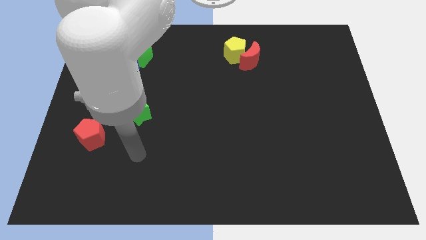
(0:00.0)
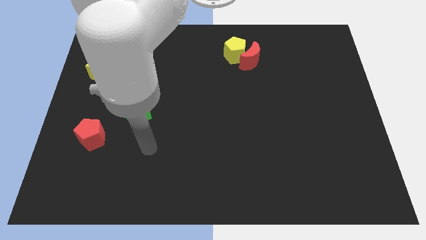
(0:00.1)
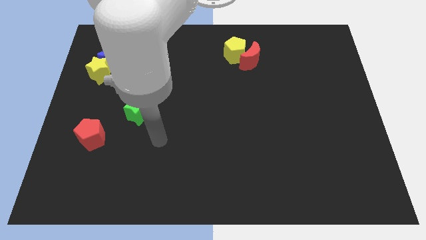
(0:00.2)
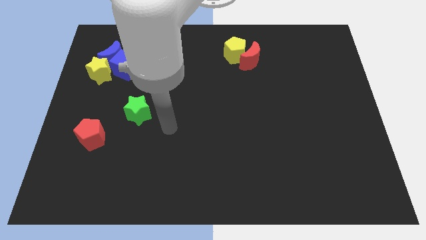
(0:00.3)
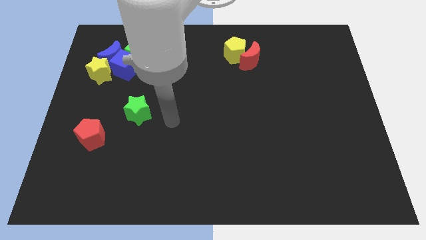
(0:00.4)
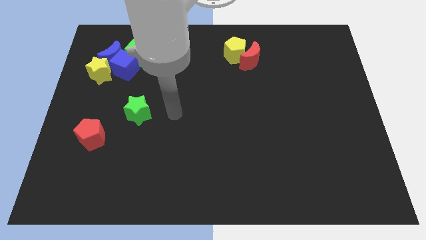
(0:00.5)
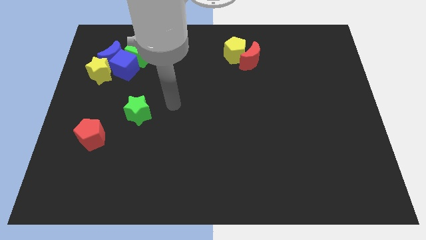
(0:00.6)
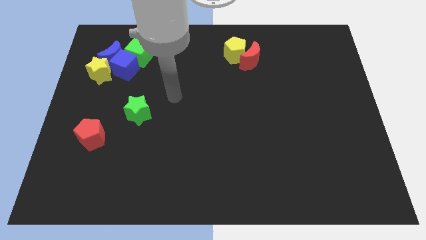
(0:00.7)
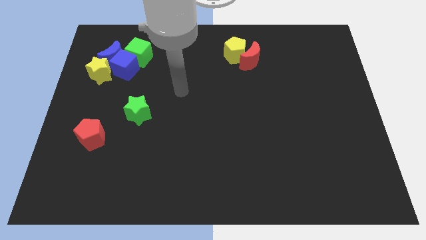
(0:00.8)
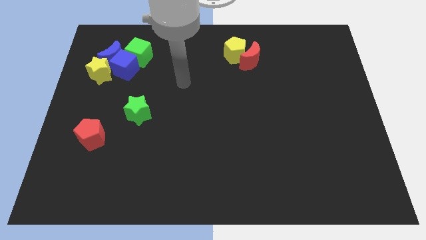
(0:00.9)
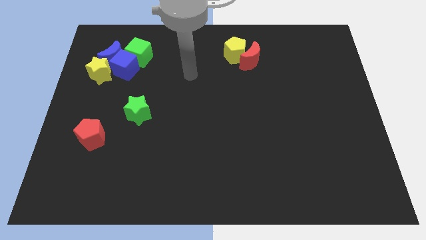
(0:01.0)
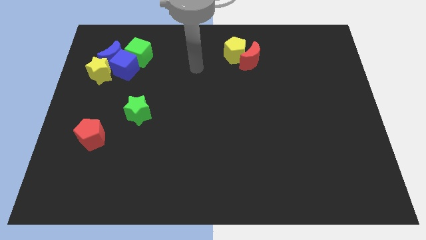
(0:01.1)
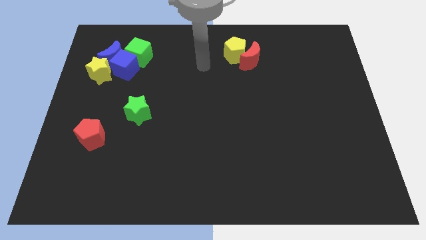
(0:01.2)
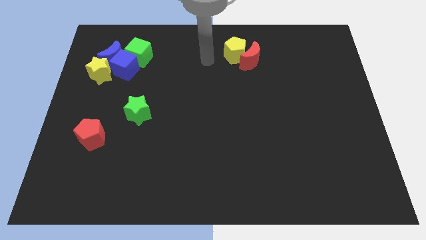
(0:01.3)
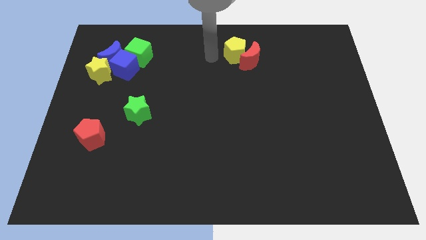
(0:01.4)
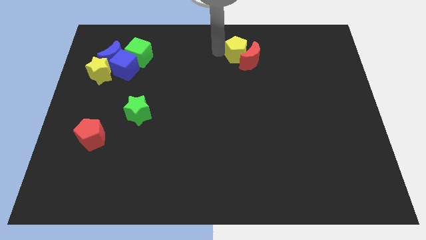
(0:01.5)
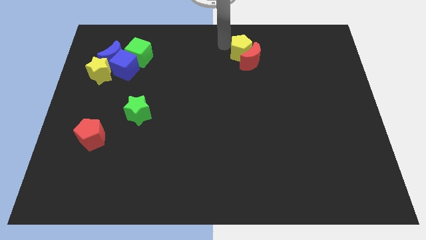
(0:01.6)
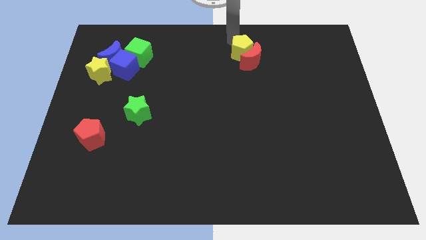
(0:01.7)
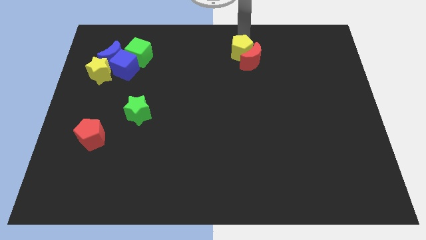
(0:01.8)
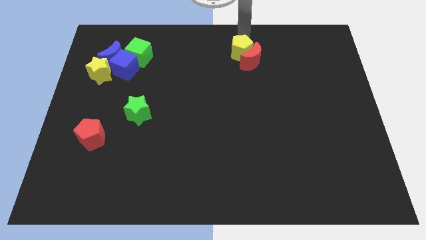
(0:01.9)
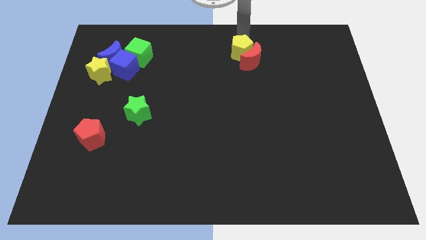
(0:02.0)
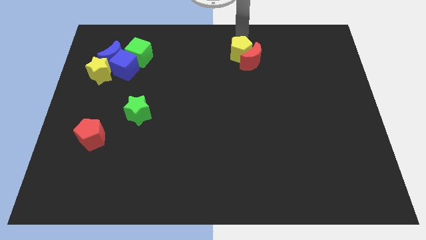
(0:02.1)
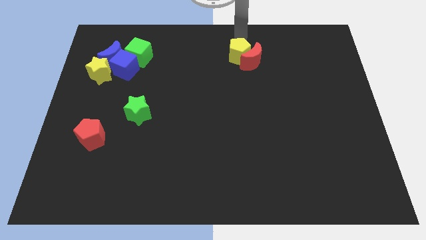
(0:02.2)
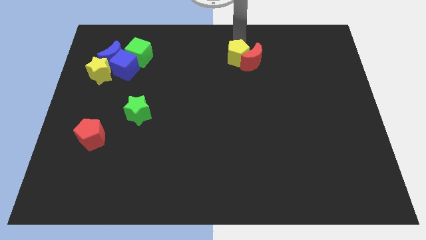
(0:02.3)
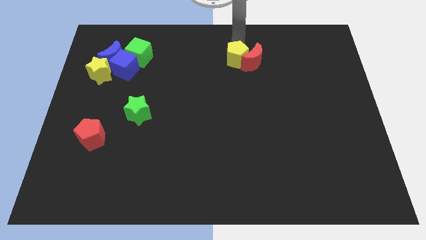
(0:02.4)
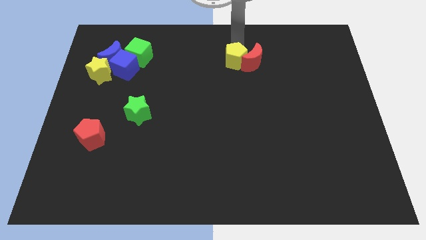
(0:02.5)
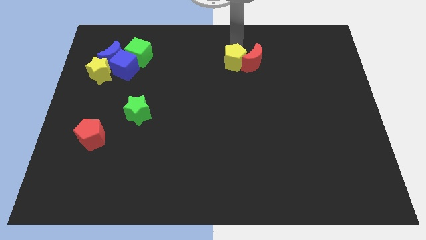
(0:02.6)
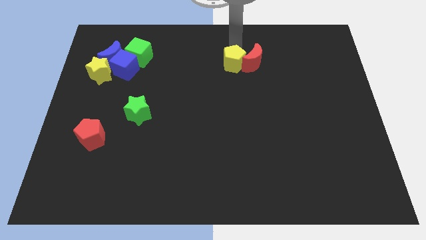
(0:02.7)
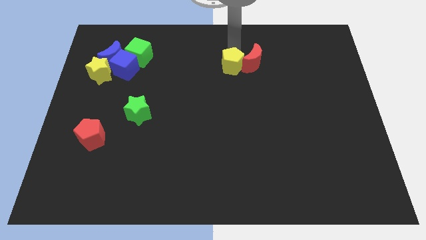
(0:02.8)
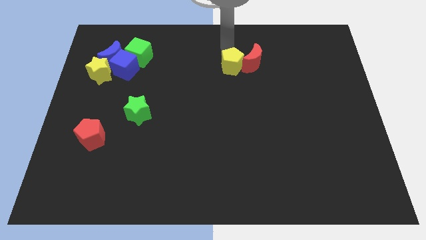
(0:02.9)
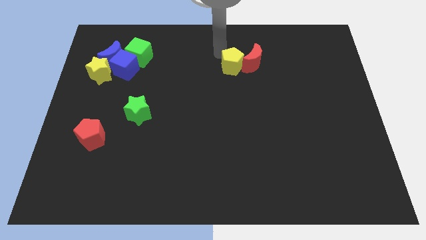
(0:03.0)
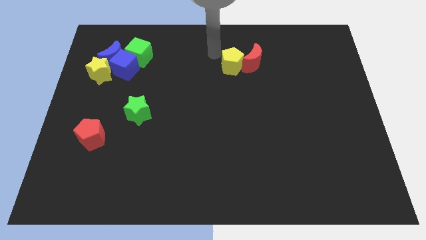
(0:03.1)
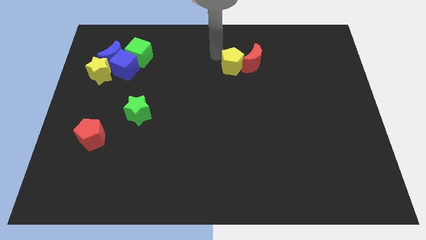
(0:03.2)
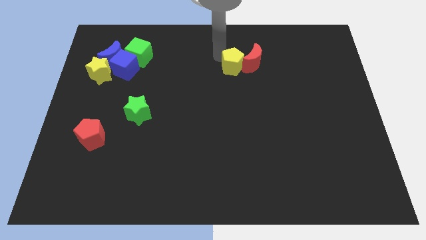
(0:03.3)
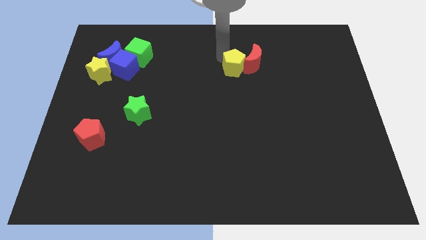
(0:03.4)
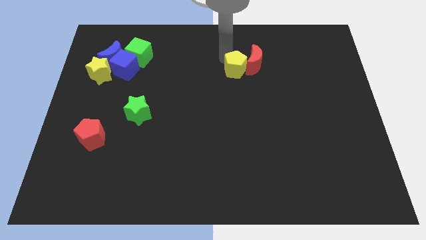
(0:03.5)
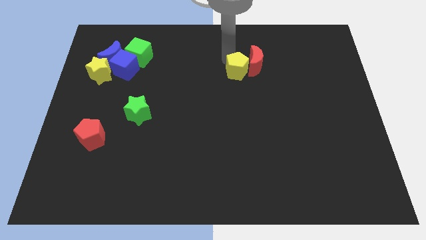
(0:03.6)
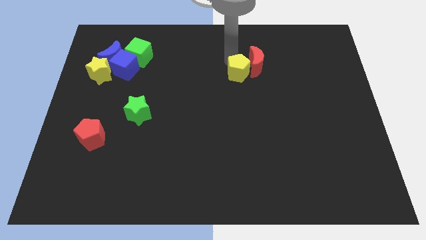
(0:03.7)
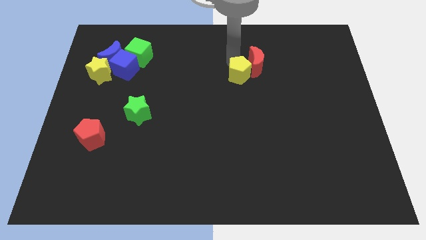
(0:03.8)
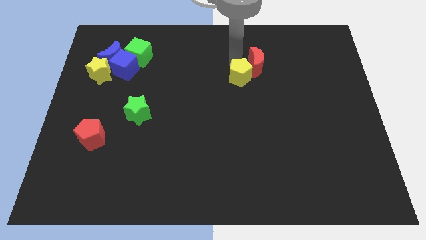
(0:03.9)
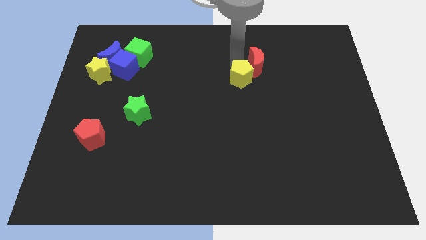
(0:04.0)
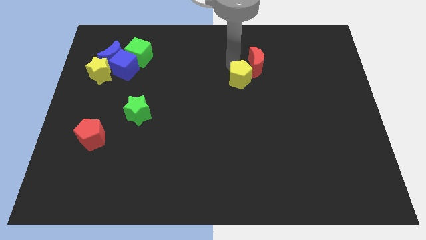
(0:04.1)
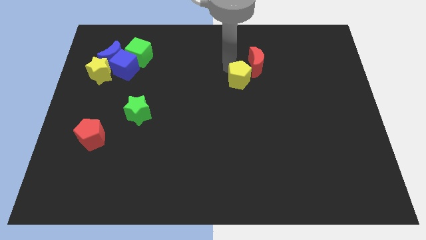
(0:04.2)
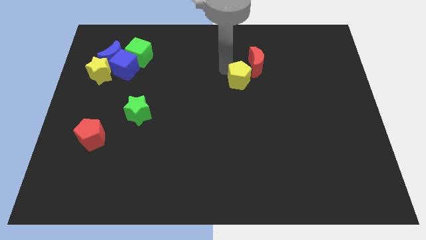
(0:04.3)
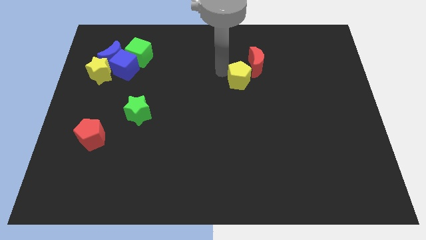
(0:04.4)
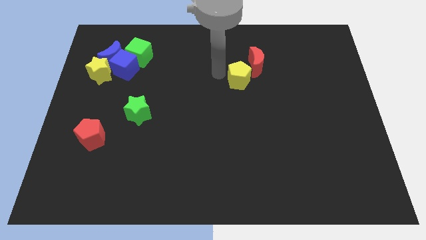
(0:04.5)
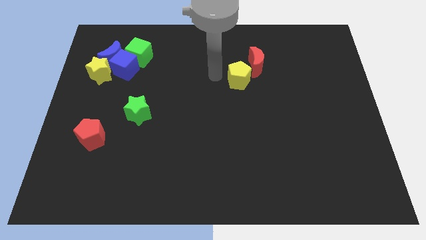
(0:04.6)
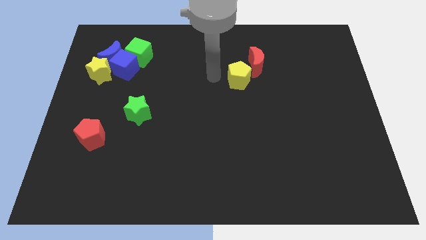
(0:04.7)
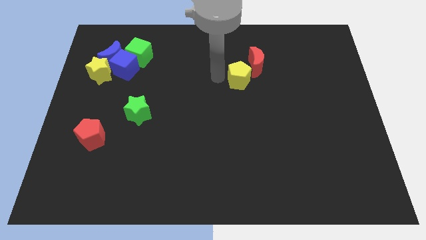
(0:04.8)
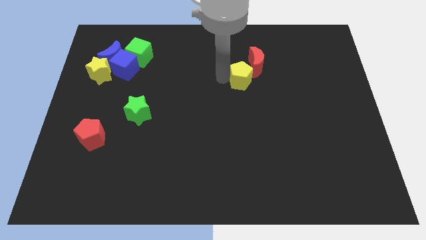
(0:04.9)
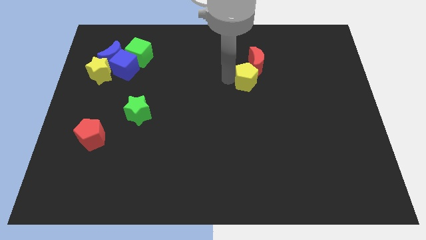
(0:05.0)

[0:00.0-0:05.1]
push the yellow pentagon slightly diagonally down and right

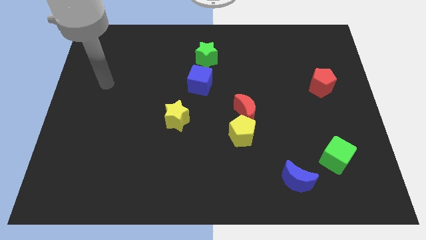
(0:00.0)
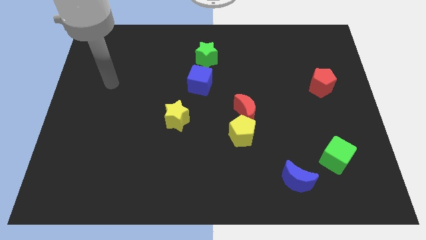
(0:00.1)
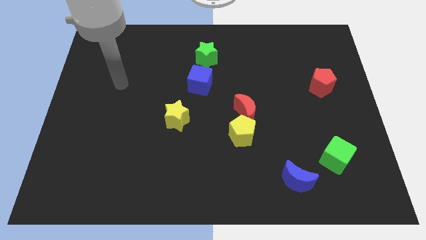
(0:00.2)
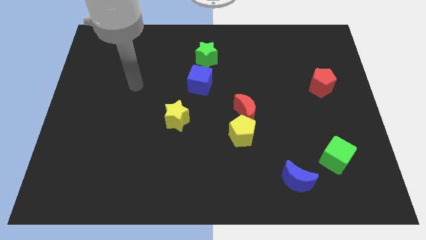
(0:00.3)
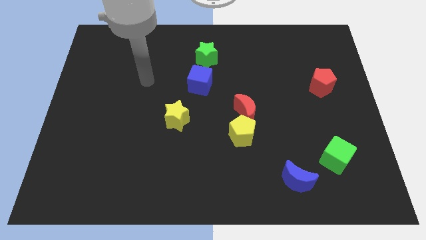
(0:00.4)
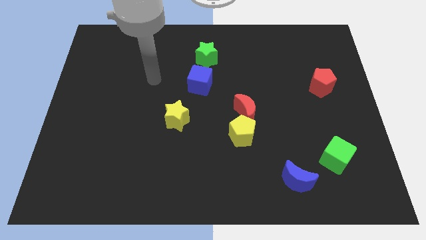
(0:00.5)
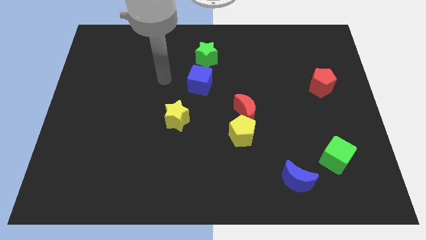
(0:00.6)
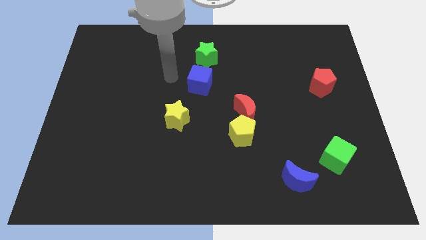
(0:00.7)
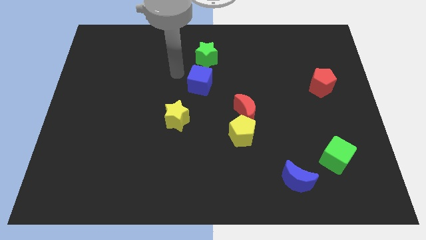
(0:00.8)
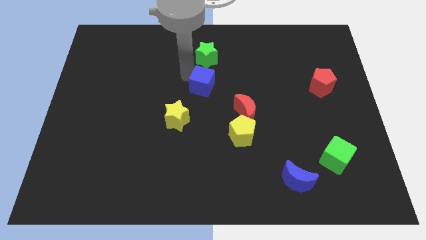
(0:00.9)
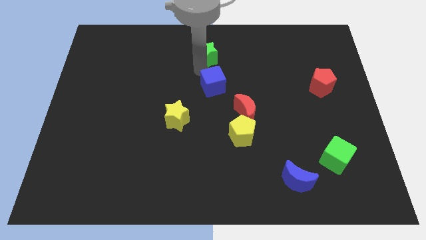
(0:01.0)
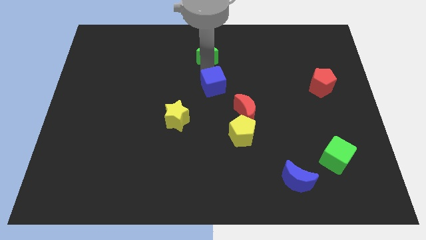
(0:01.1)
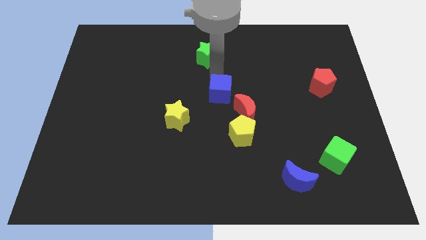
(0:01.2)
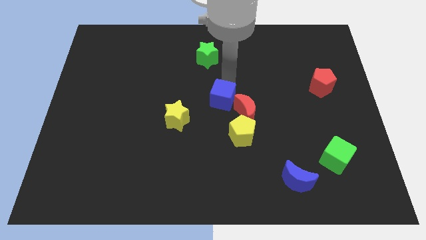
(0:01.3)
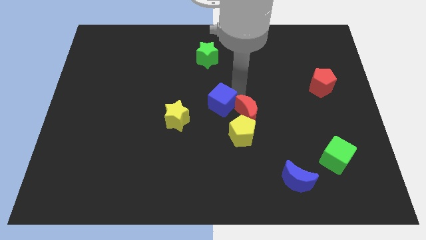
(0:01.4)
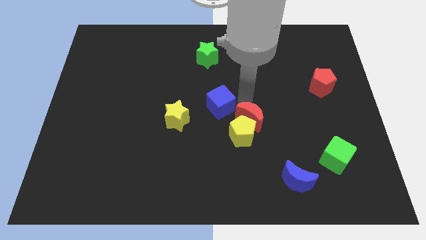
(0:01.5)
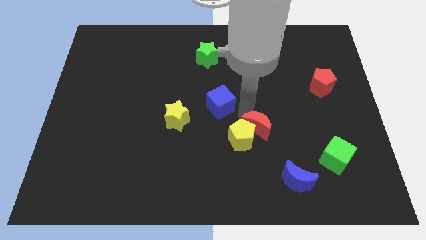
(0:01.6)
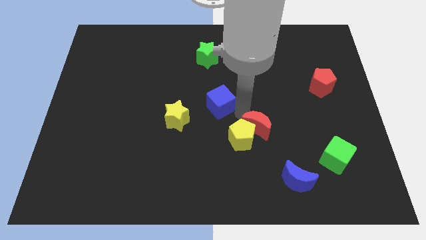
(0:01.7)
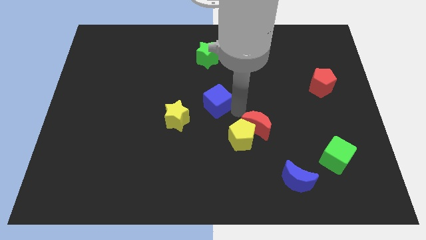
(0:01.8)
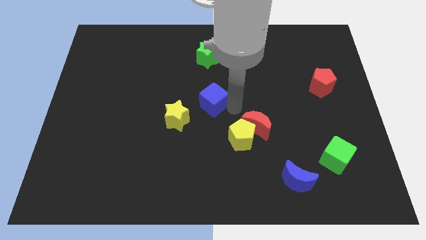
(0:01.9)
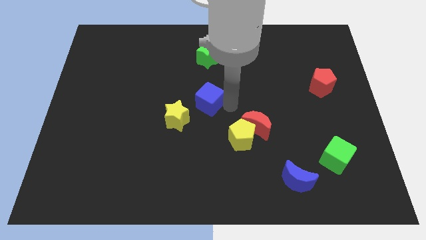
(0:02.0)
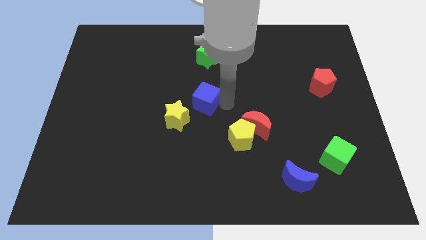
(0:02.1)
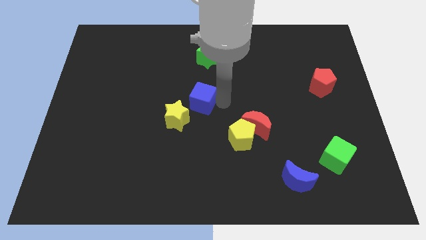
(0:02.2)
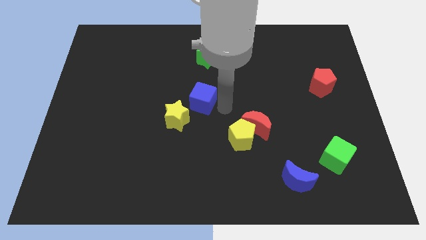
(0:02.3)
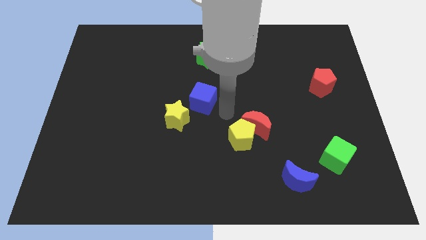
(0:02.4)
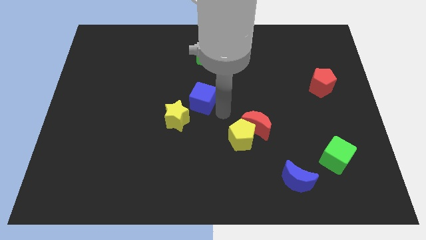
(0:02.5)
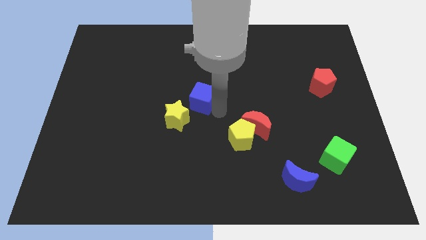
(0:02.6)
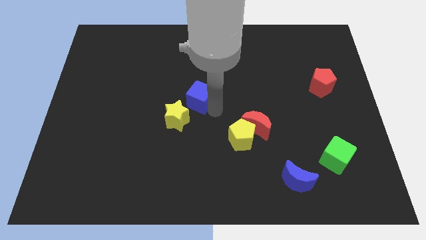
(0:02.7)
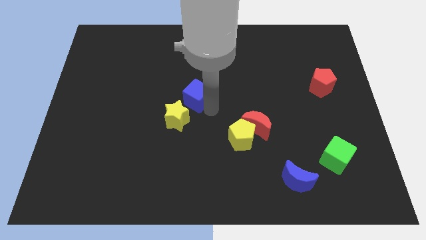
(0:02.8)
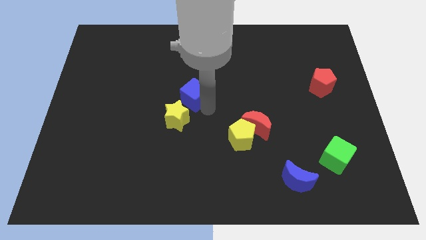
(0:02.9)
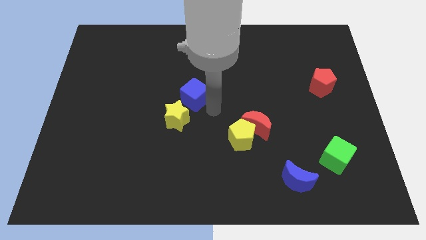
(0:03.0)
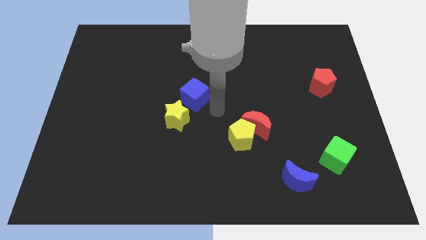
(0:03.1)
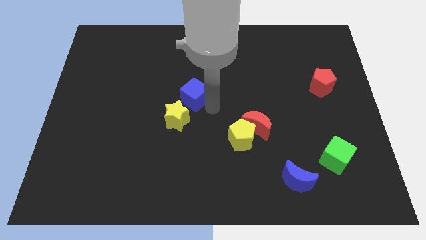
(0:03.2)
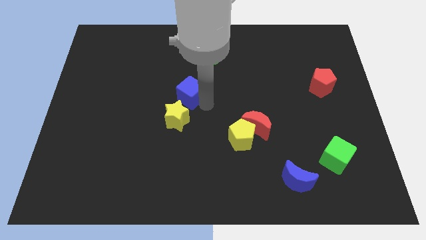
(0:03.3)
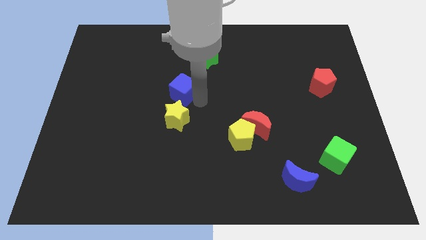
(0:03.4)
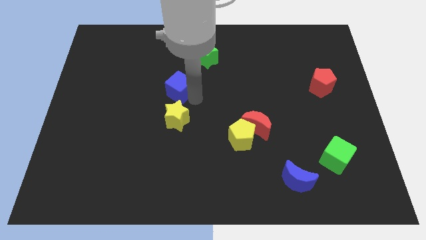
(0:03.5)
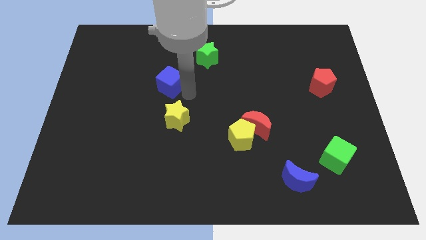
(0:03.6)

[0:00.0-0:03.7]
slide the blue cube somewhat left
